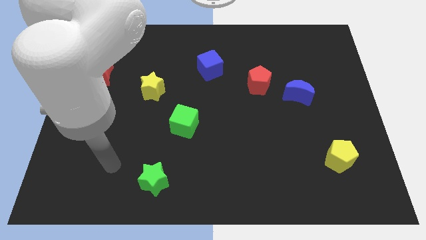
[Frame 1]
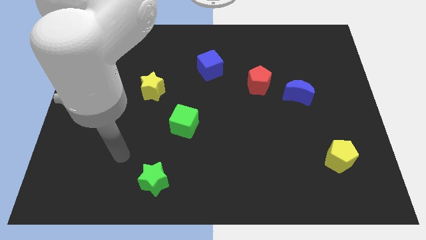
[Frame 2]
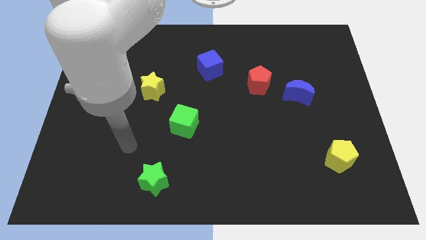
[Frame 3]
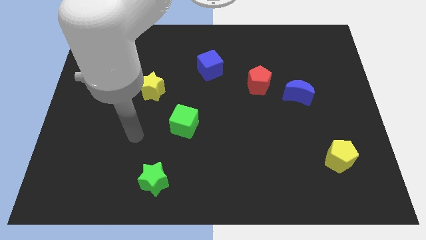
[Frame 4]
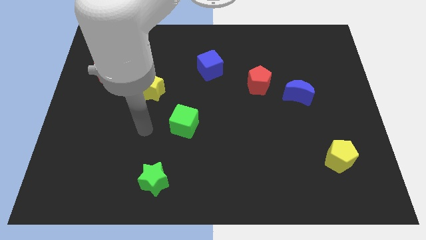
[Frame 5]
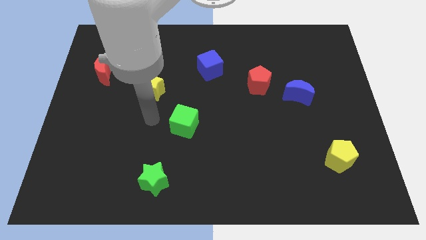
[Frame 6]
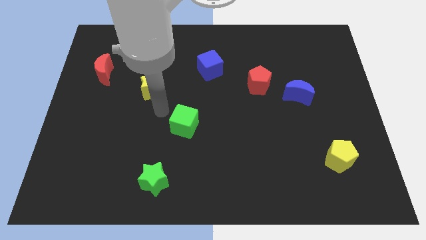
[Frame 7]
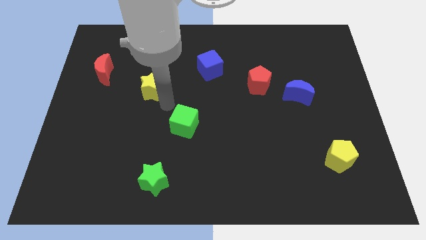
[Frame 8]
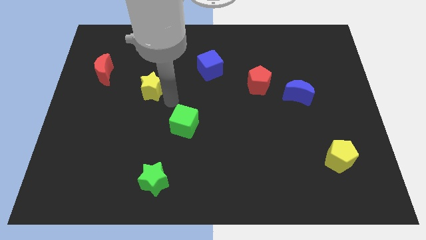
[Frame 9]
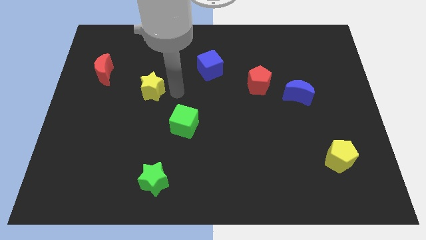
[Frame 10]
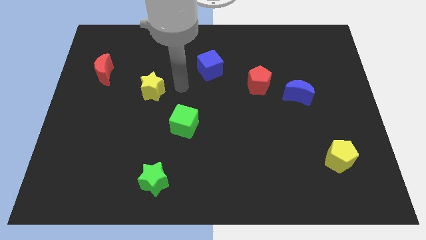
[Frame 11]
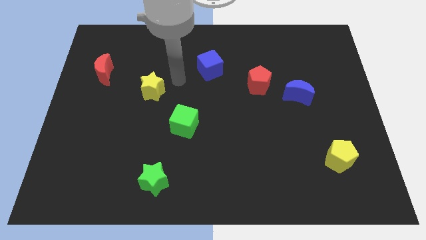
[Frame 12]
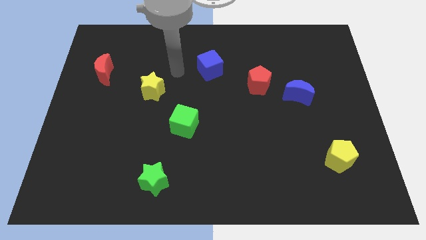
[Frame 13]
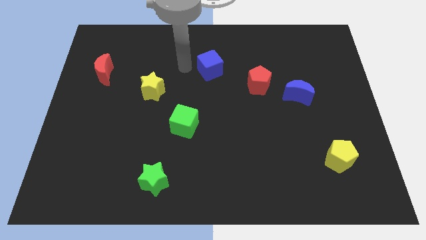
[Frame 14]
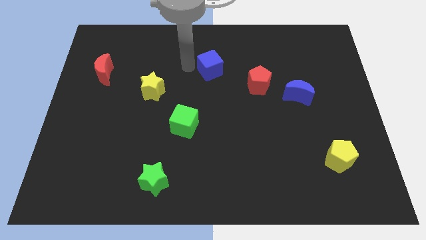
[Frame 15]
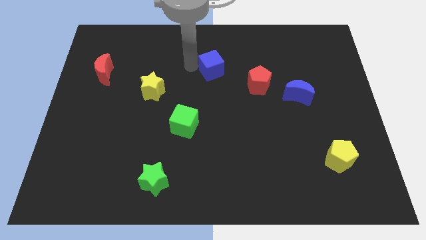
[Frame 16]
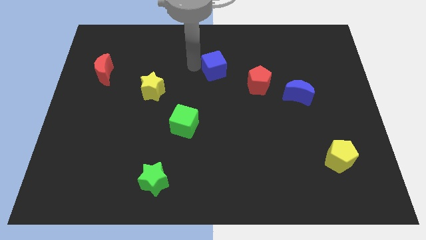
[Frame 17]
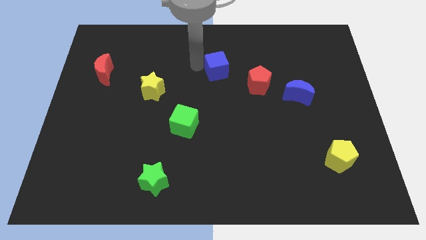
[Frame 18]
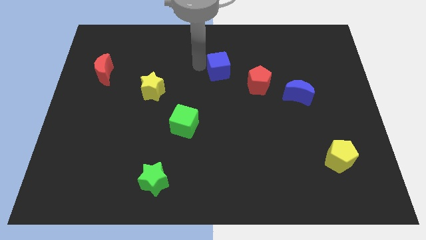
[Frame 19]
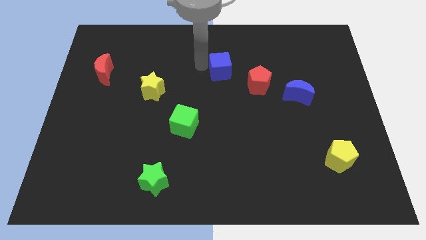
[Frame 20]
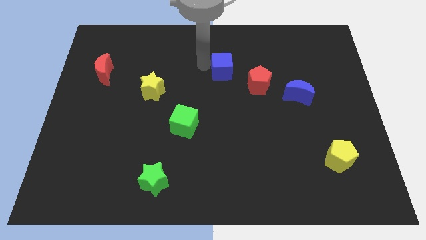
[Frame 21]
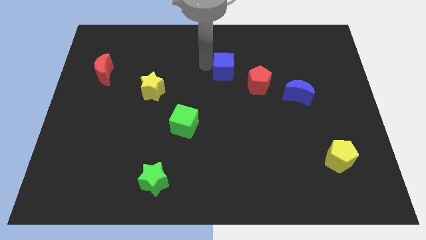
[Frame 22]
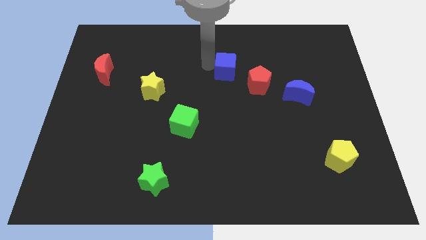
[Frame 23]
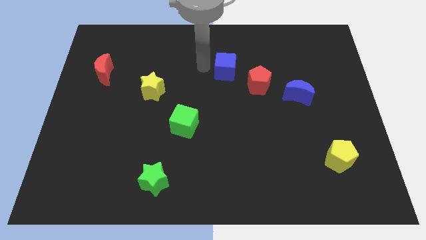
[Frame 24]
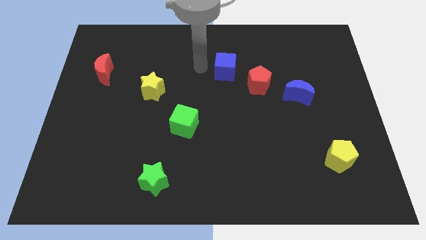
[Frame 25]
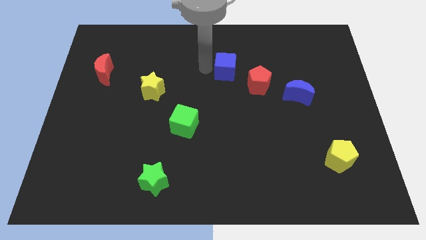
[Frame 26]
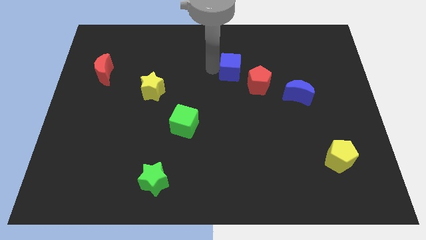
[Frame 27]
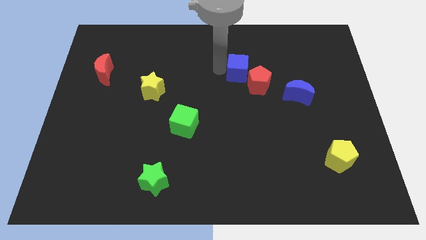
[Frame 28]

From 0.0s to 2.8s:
move the blue cube to the right a little

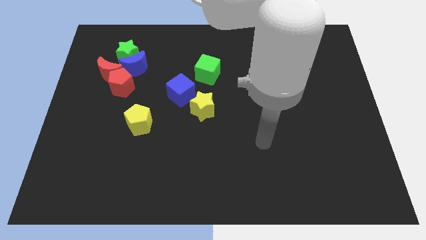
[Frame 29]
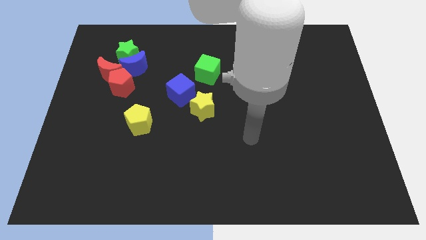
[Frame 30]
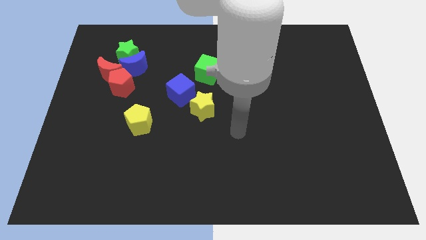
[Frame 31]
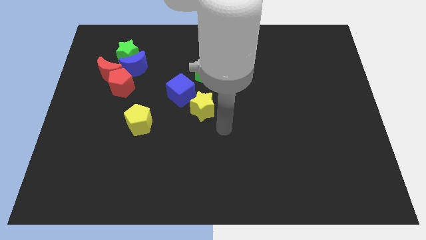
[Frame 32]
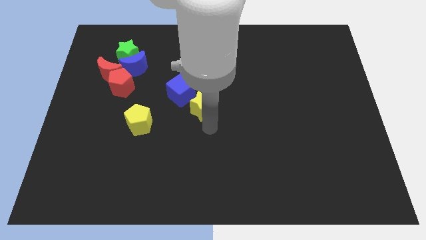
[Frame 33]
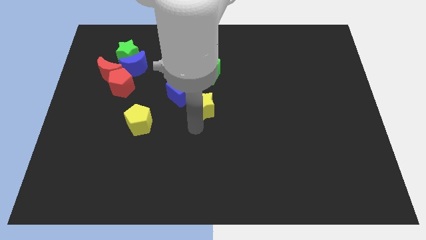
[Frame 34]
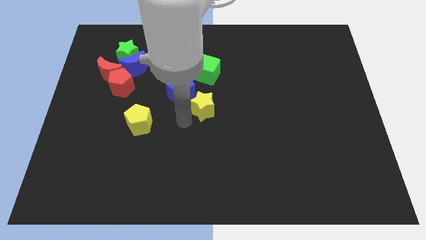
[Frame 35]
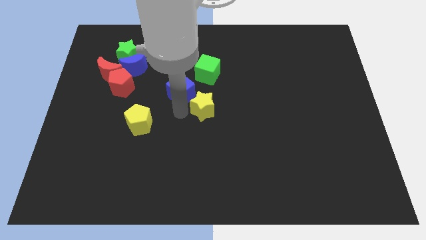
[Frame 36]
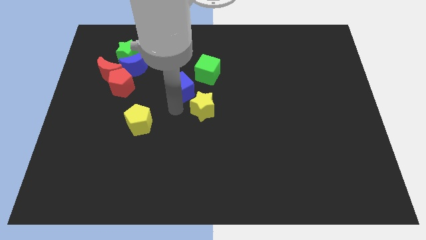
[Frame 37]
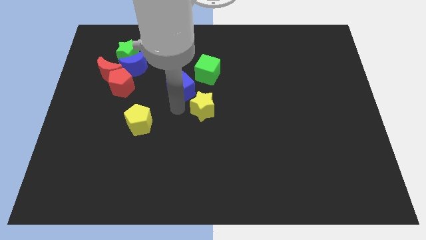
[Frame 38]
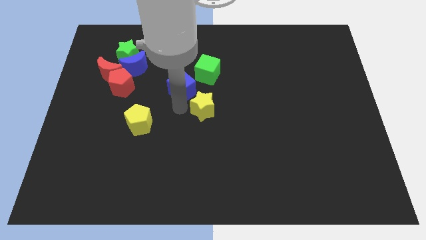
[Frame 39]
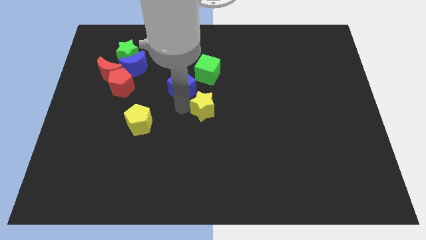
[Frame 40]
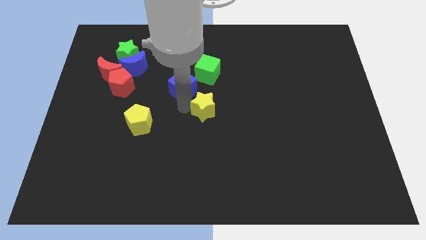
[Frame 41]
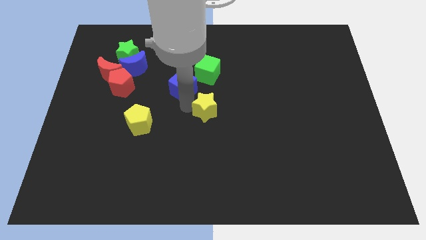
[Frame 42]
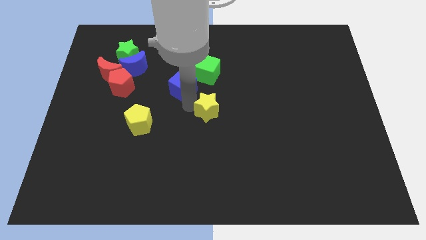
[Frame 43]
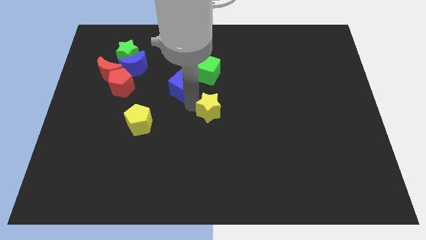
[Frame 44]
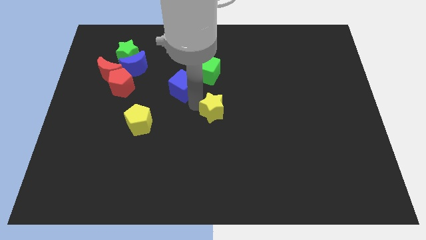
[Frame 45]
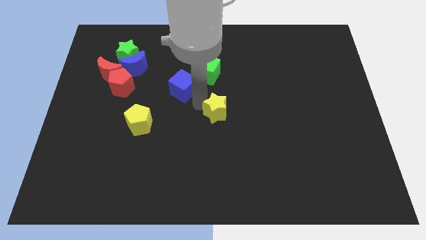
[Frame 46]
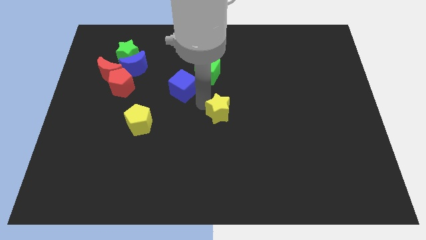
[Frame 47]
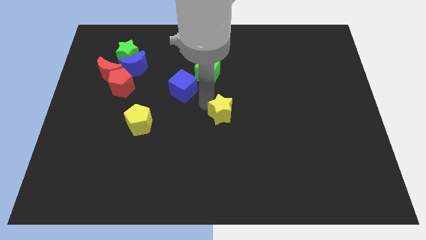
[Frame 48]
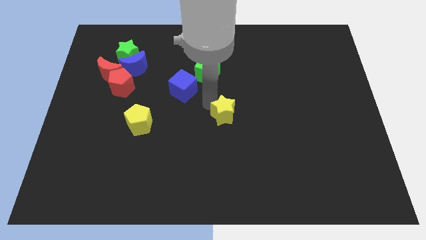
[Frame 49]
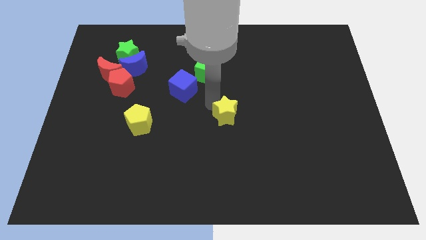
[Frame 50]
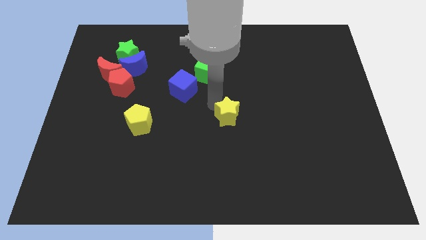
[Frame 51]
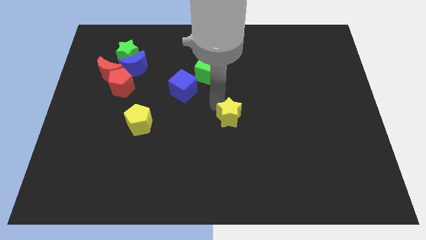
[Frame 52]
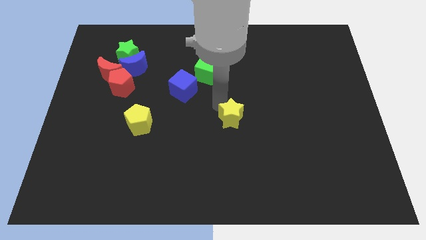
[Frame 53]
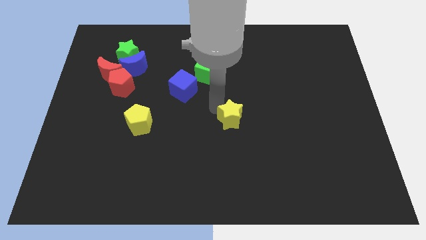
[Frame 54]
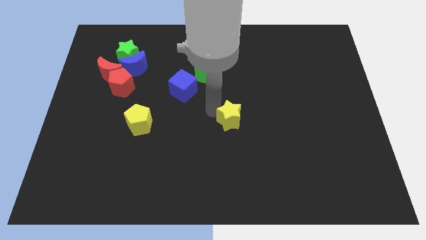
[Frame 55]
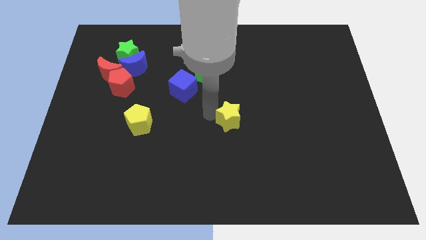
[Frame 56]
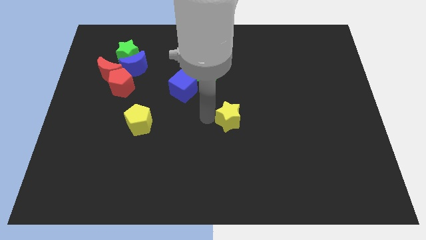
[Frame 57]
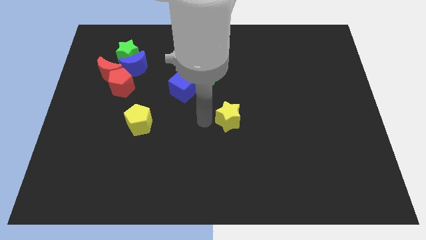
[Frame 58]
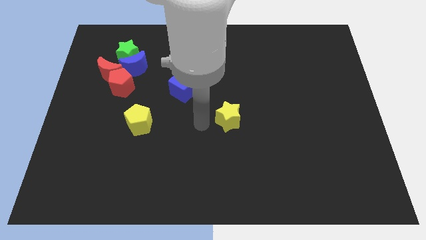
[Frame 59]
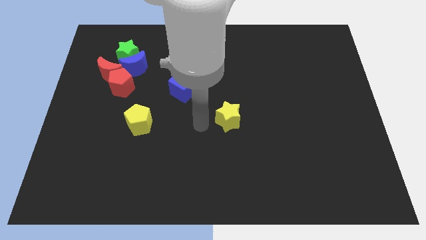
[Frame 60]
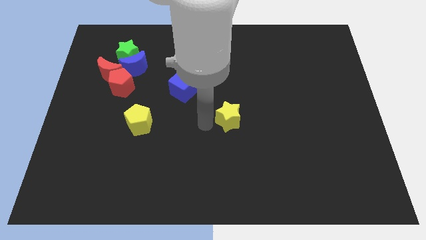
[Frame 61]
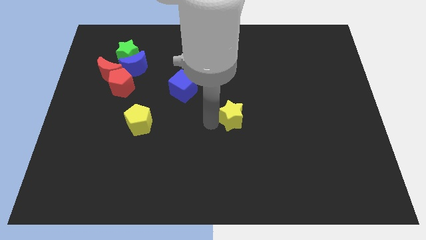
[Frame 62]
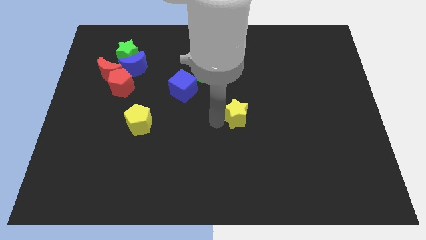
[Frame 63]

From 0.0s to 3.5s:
slide the yellow star to the right somewhat

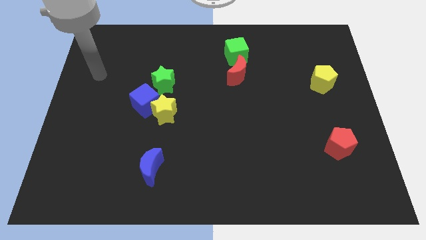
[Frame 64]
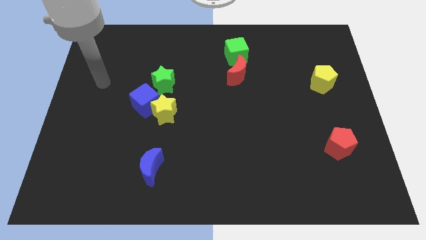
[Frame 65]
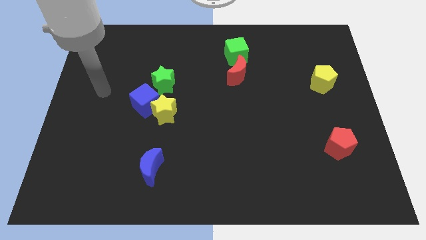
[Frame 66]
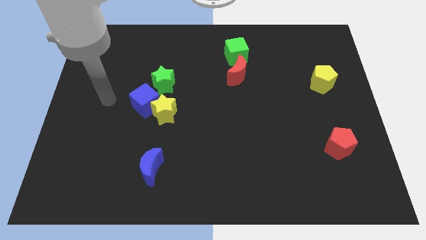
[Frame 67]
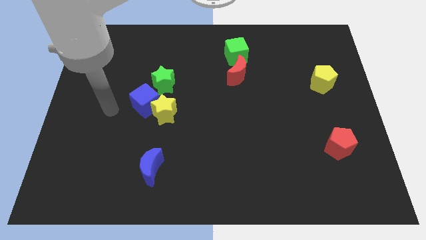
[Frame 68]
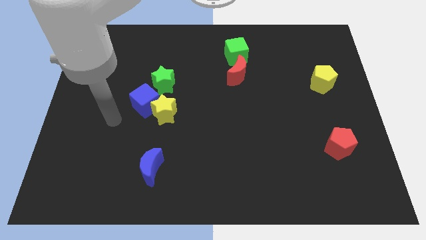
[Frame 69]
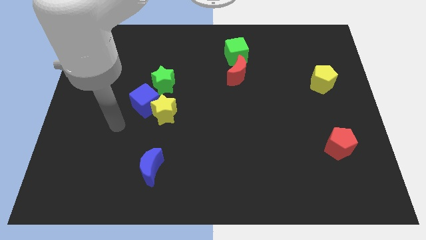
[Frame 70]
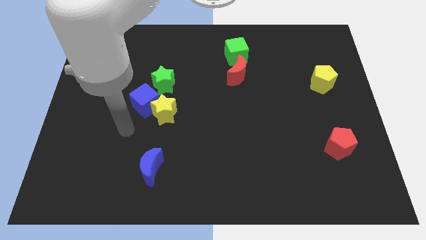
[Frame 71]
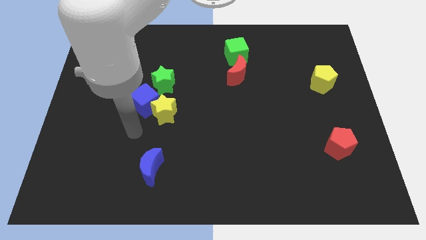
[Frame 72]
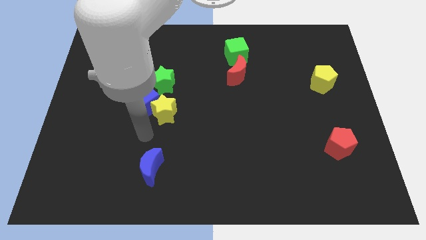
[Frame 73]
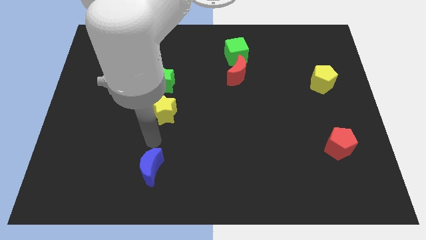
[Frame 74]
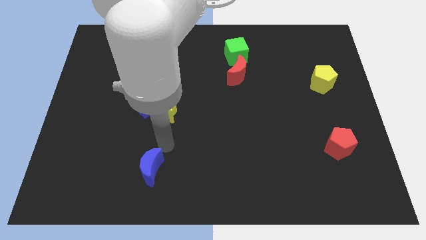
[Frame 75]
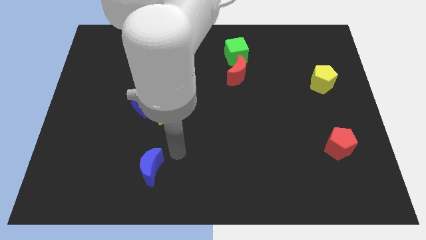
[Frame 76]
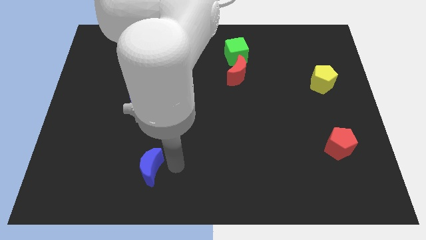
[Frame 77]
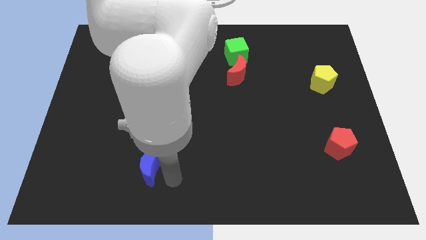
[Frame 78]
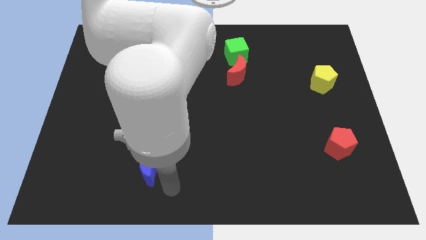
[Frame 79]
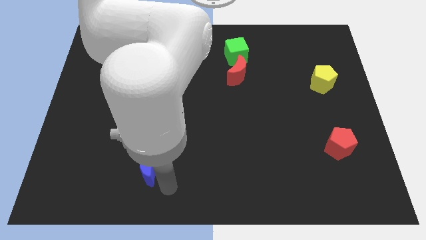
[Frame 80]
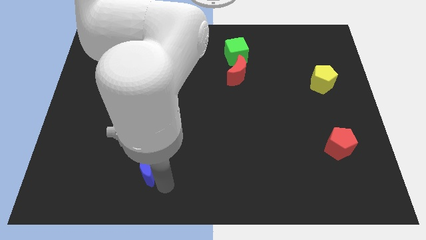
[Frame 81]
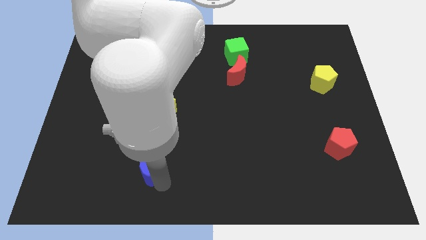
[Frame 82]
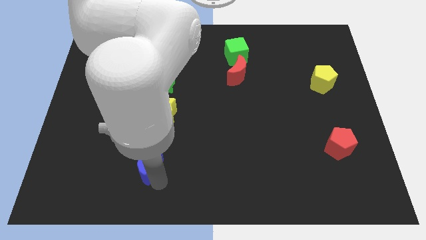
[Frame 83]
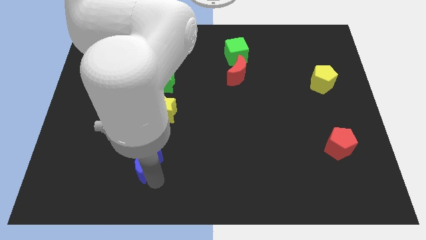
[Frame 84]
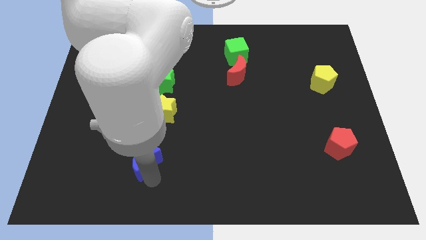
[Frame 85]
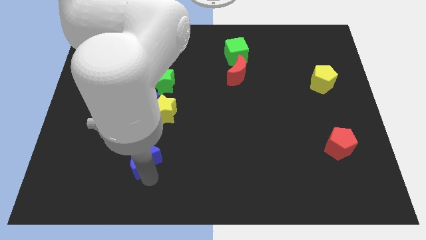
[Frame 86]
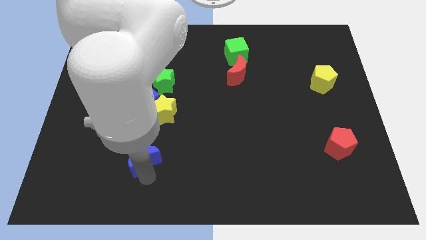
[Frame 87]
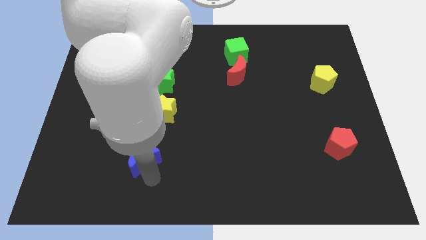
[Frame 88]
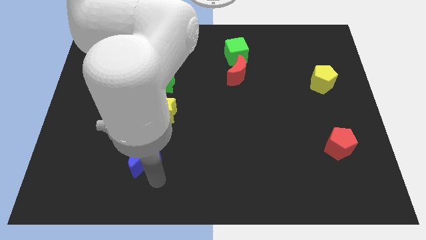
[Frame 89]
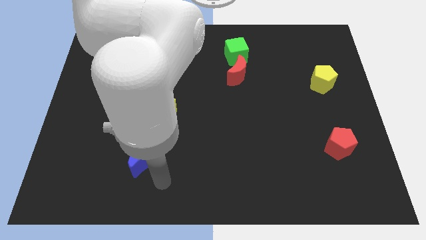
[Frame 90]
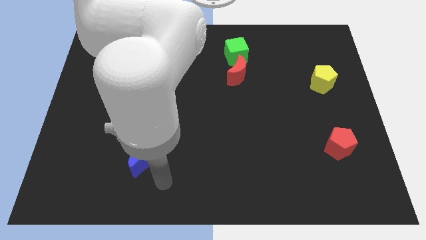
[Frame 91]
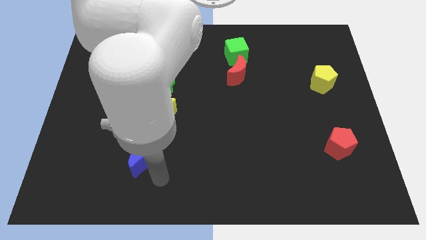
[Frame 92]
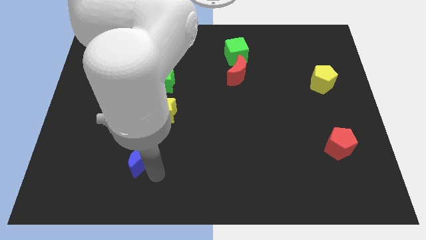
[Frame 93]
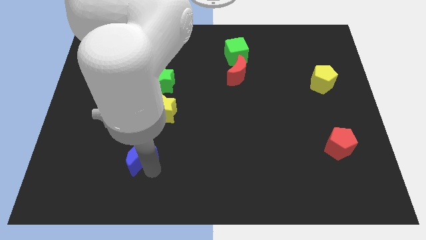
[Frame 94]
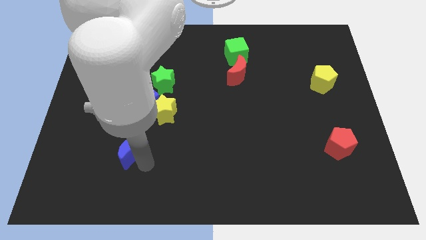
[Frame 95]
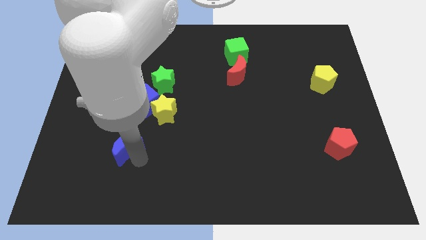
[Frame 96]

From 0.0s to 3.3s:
push the blue moon a little diagonally upwards and left
